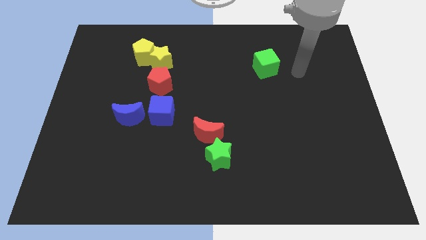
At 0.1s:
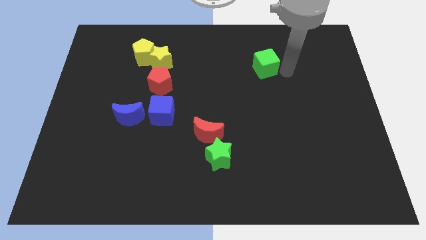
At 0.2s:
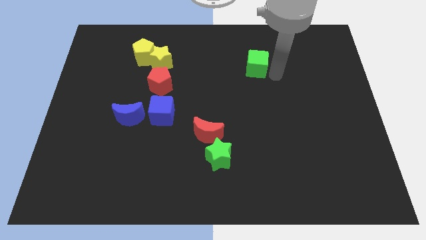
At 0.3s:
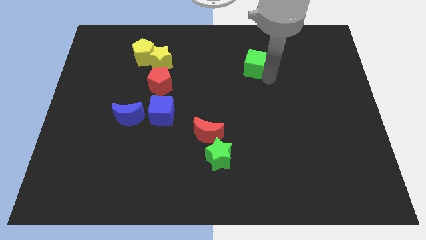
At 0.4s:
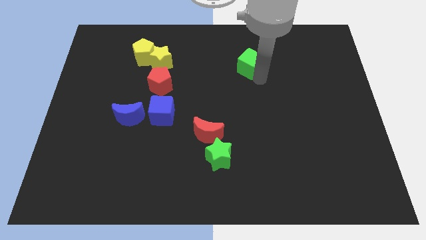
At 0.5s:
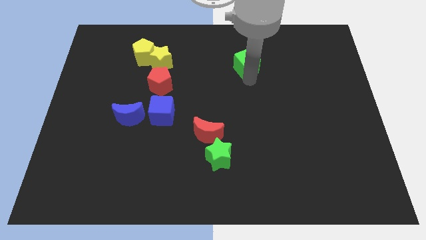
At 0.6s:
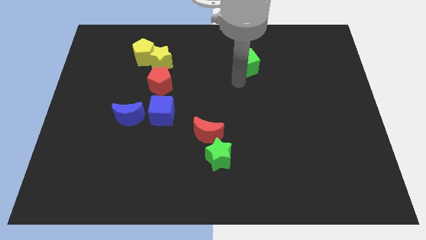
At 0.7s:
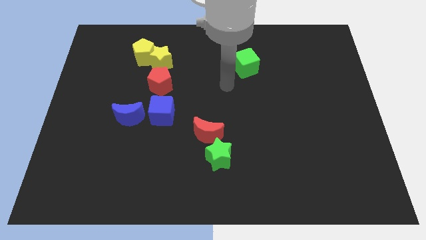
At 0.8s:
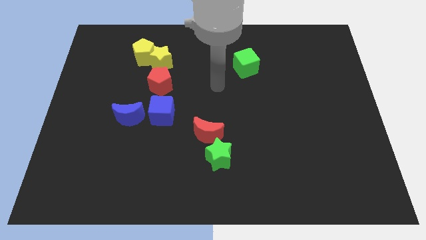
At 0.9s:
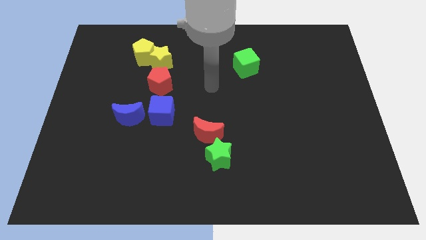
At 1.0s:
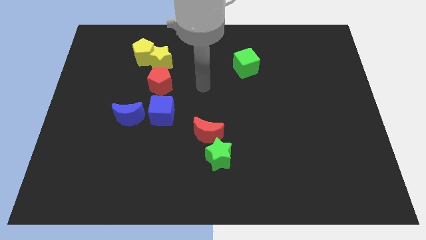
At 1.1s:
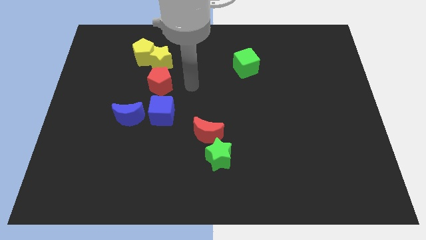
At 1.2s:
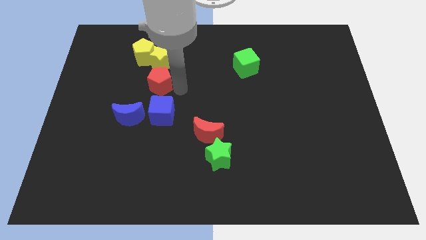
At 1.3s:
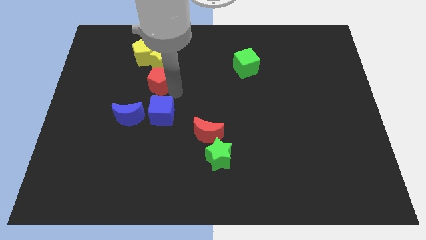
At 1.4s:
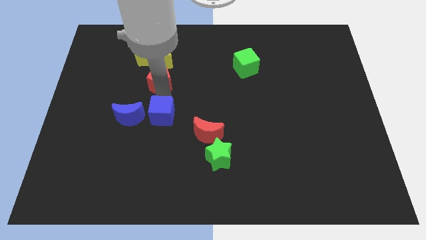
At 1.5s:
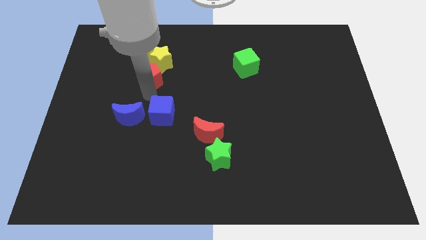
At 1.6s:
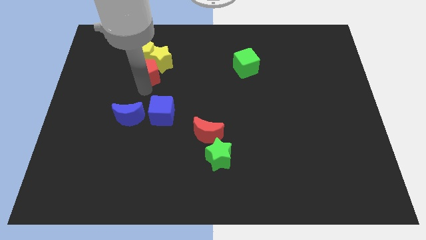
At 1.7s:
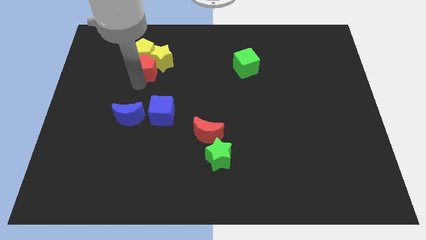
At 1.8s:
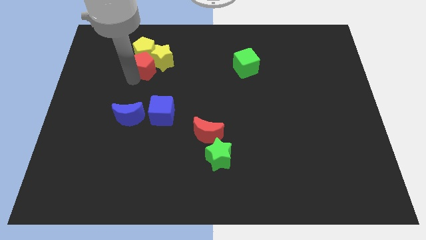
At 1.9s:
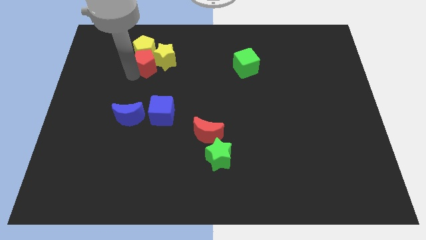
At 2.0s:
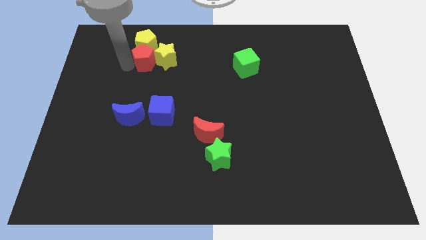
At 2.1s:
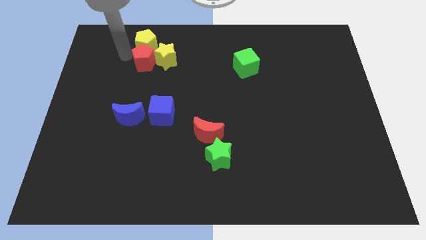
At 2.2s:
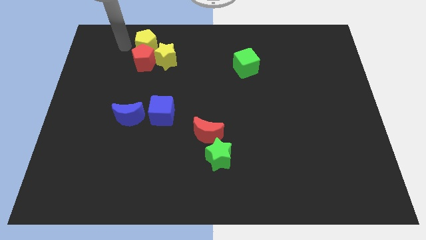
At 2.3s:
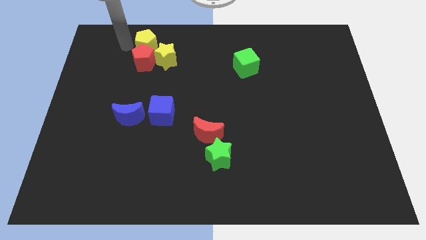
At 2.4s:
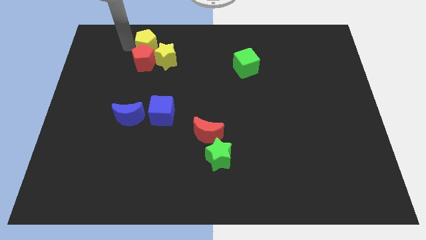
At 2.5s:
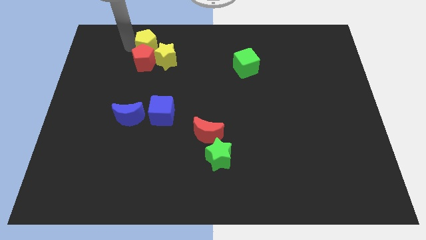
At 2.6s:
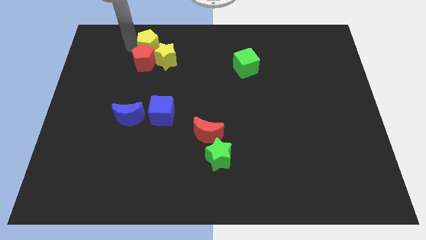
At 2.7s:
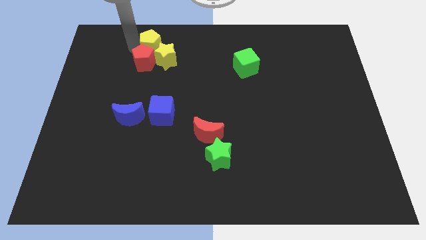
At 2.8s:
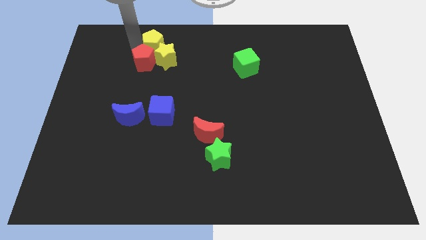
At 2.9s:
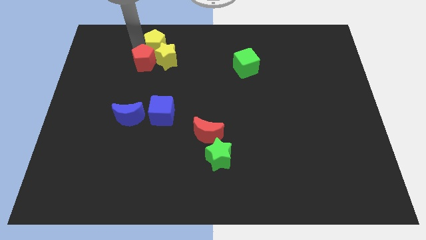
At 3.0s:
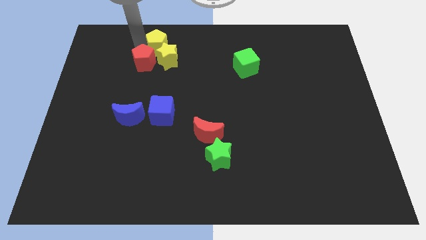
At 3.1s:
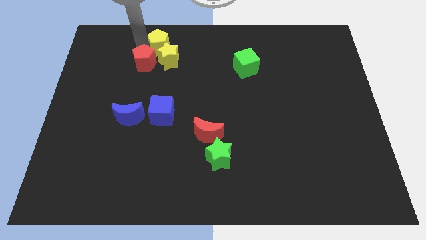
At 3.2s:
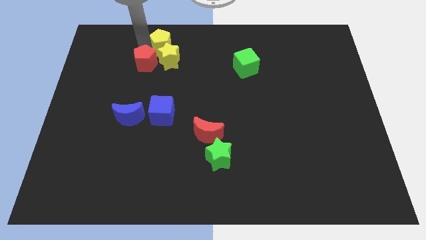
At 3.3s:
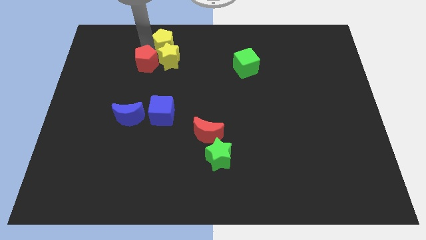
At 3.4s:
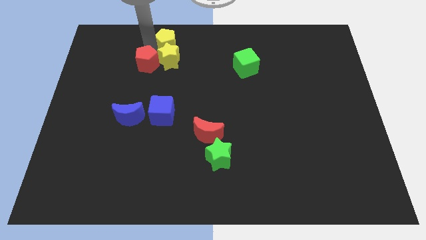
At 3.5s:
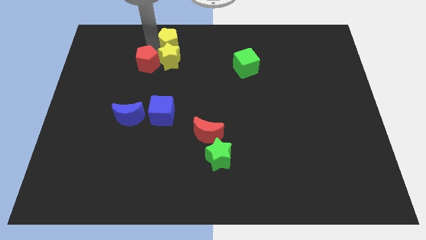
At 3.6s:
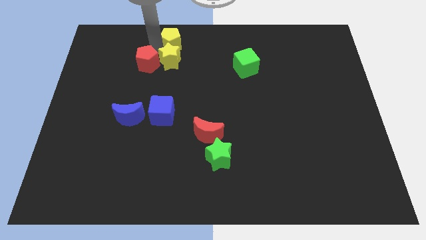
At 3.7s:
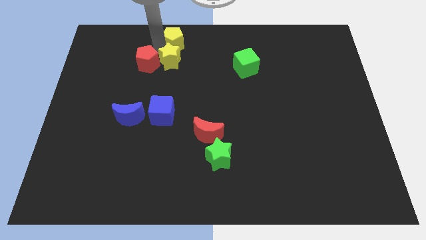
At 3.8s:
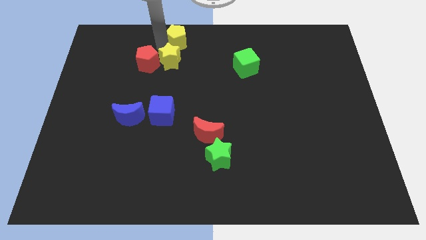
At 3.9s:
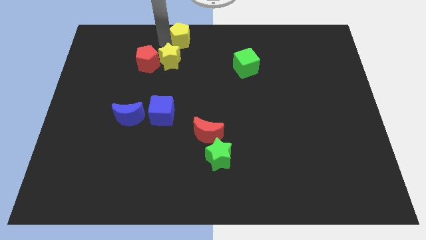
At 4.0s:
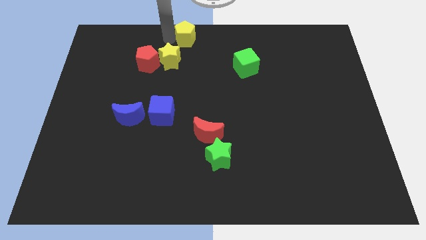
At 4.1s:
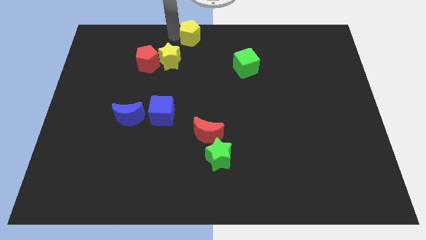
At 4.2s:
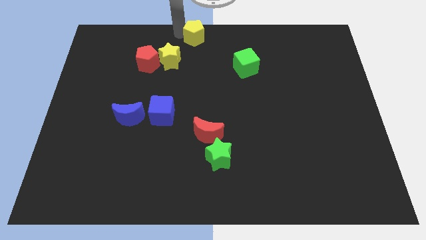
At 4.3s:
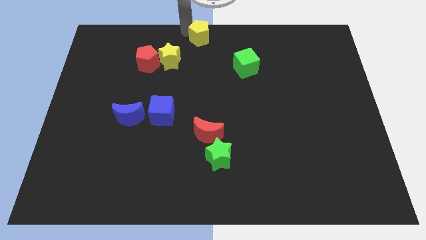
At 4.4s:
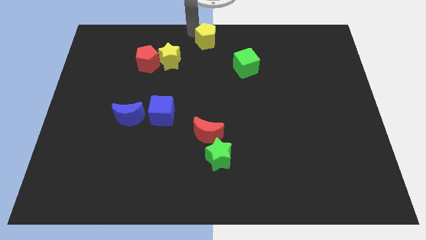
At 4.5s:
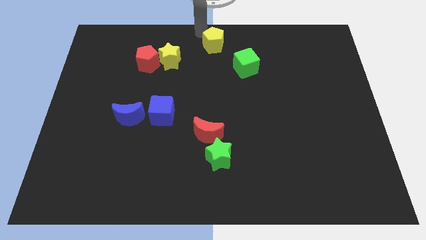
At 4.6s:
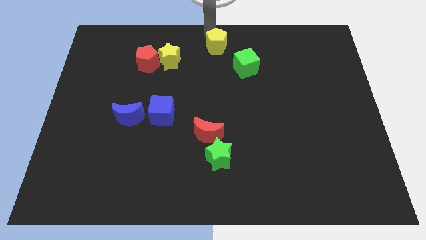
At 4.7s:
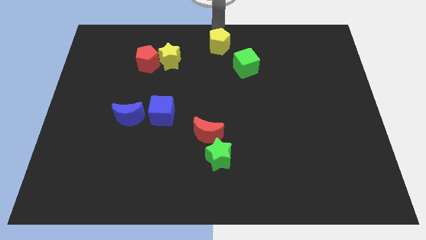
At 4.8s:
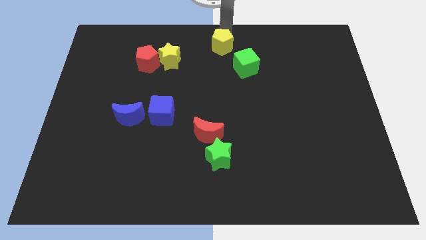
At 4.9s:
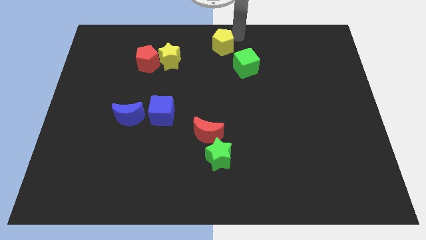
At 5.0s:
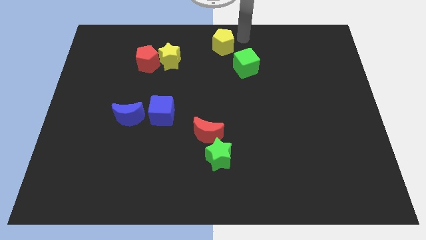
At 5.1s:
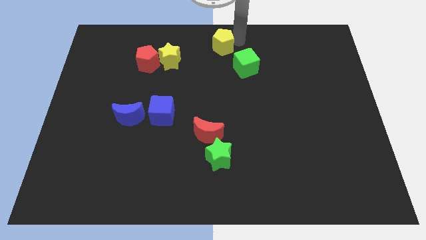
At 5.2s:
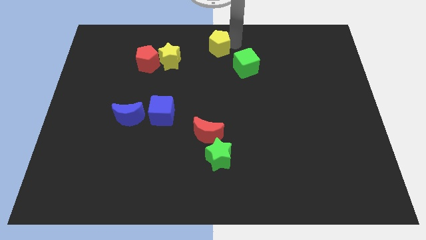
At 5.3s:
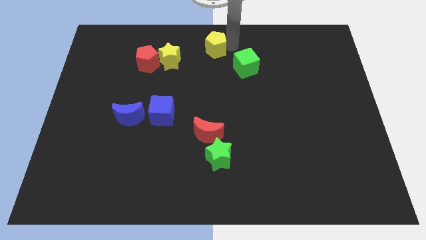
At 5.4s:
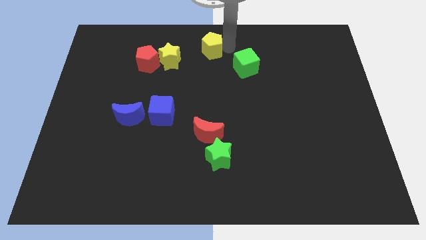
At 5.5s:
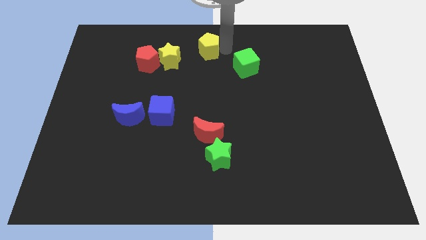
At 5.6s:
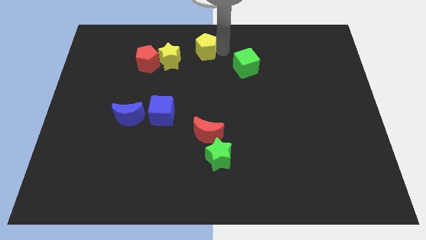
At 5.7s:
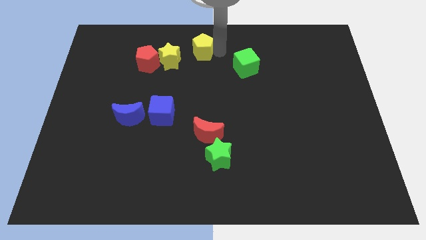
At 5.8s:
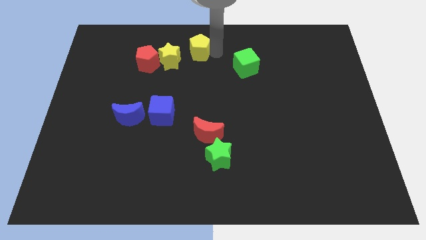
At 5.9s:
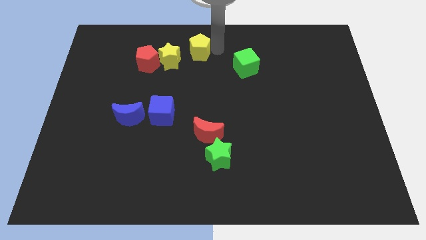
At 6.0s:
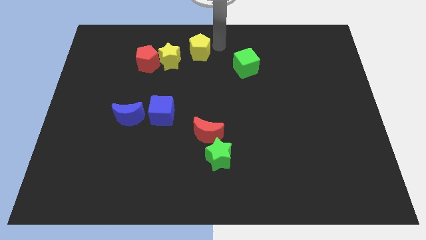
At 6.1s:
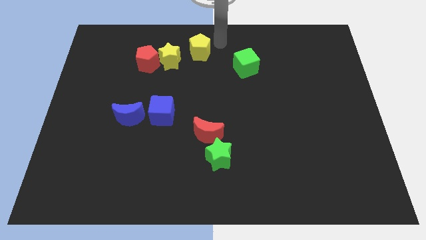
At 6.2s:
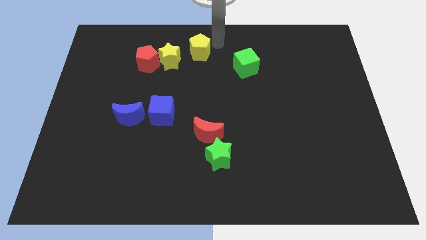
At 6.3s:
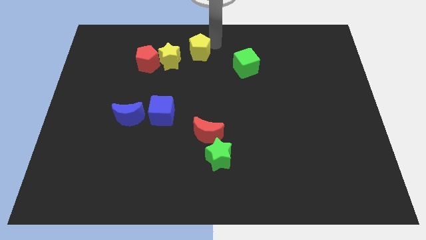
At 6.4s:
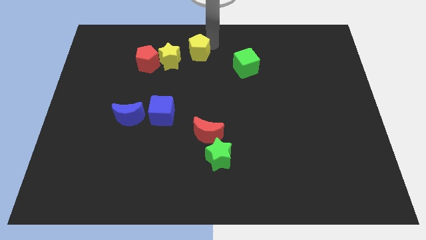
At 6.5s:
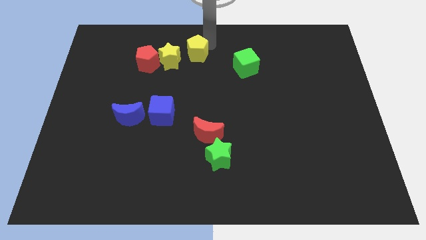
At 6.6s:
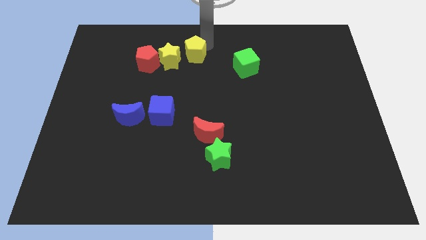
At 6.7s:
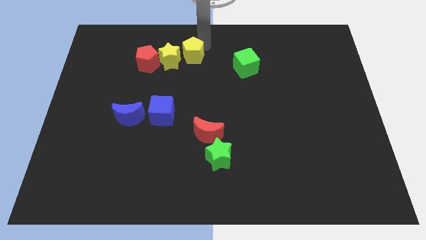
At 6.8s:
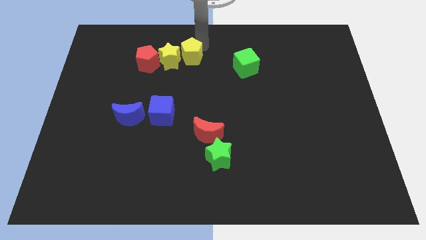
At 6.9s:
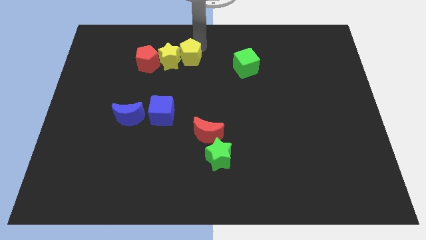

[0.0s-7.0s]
move the yellow pentagon to the bottom right of the yellow star

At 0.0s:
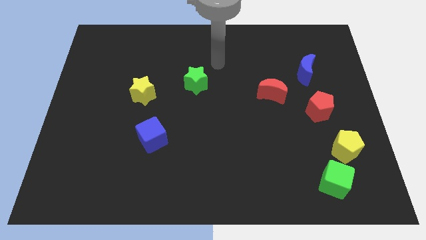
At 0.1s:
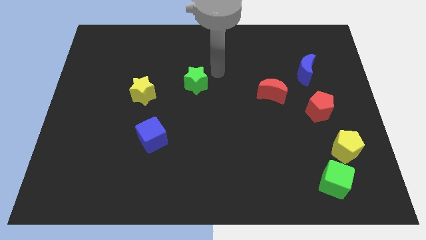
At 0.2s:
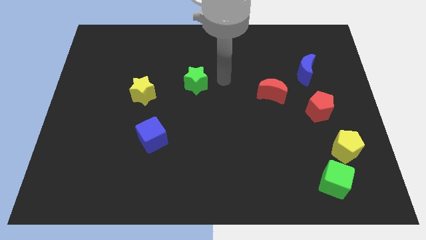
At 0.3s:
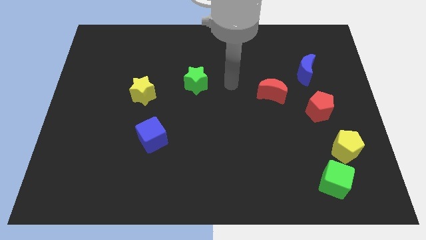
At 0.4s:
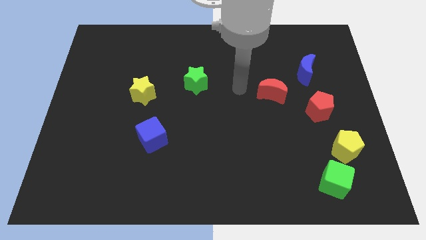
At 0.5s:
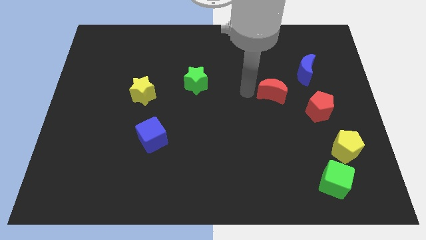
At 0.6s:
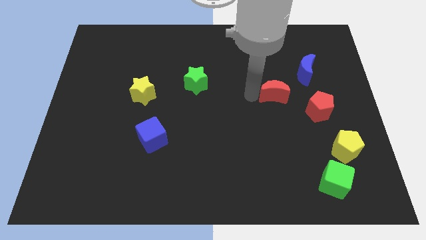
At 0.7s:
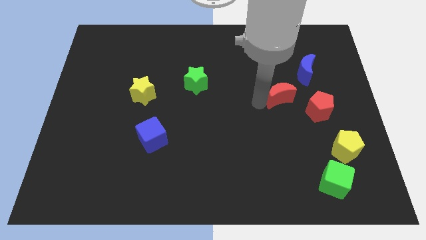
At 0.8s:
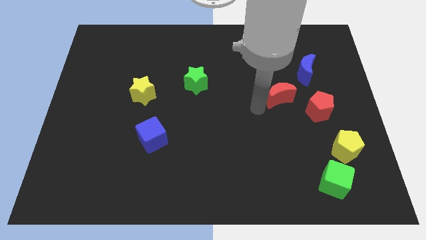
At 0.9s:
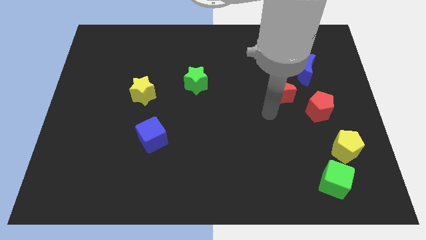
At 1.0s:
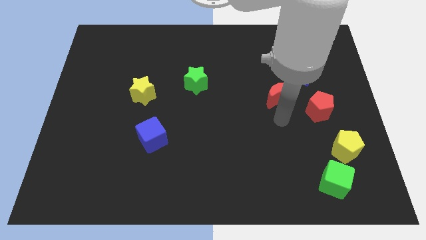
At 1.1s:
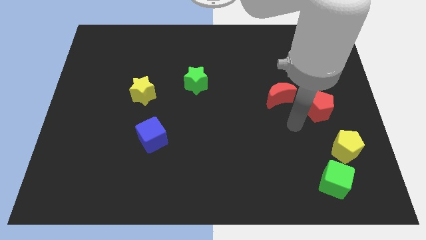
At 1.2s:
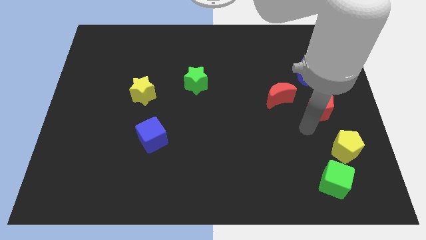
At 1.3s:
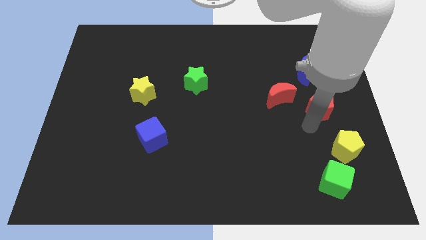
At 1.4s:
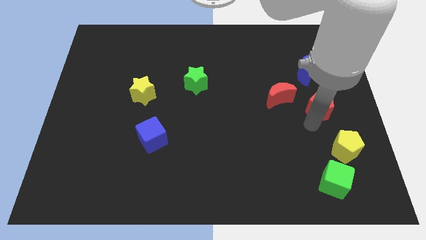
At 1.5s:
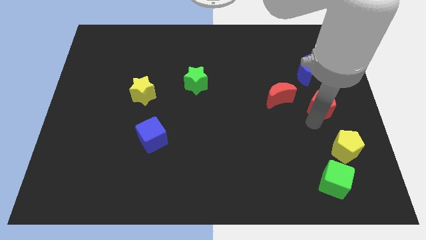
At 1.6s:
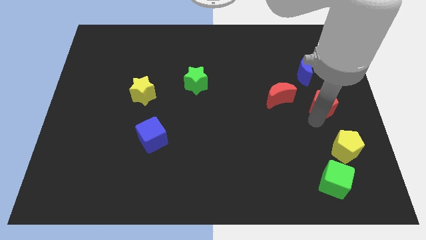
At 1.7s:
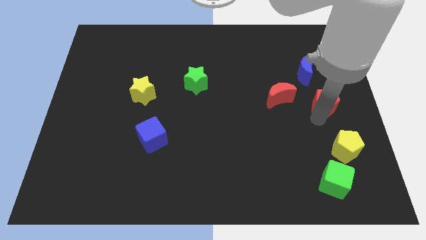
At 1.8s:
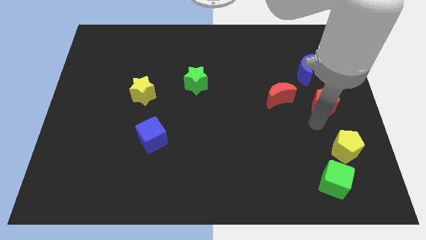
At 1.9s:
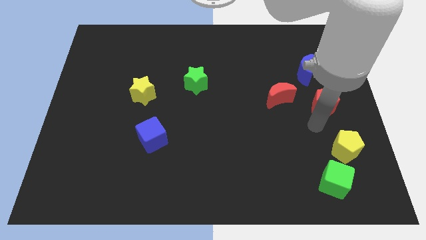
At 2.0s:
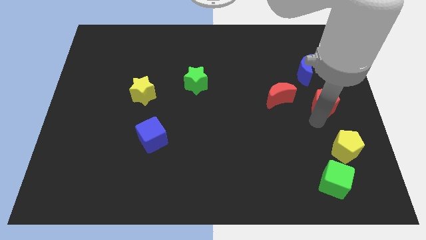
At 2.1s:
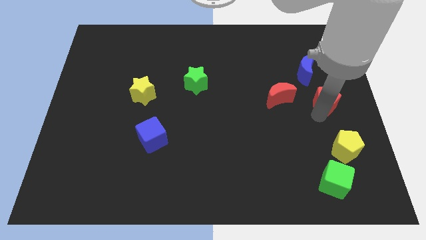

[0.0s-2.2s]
slide the red pentagon to the bottom right of the blue moon
